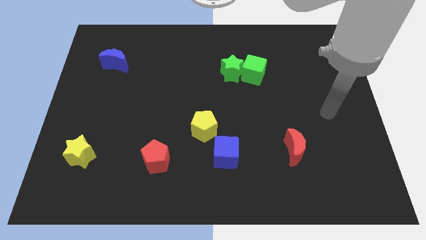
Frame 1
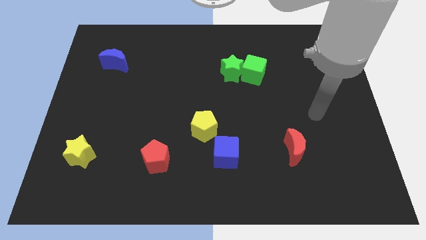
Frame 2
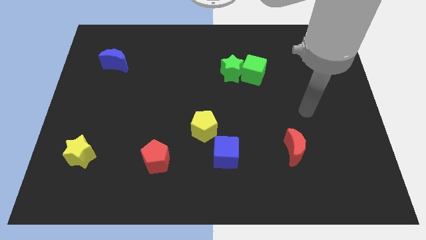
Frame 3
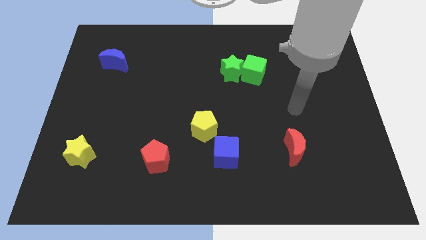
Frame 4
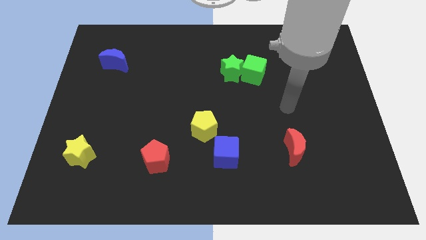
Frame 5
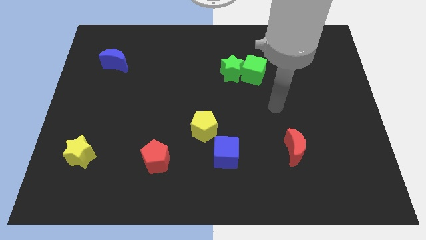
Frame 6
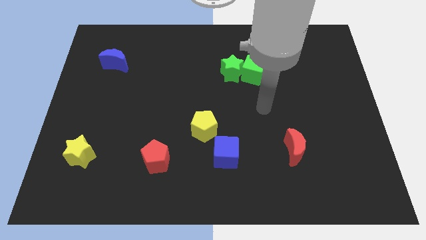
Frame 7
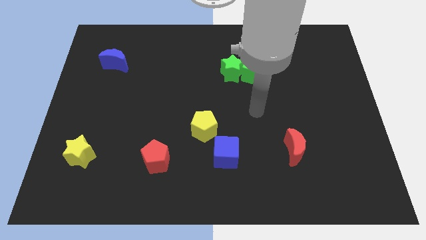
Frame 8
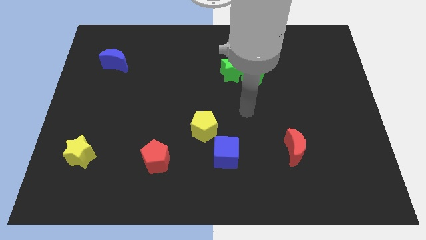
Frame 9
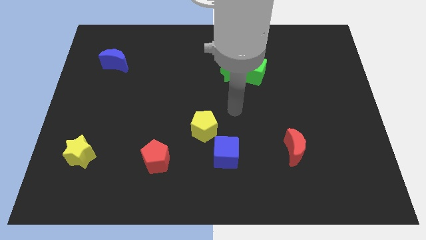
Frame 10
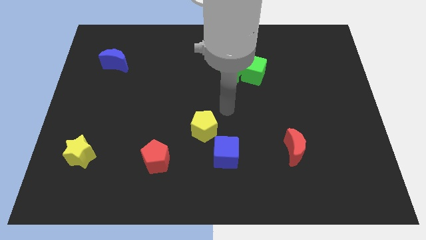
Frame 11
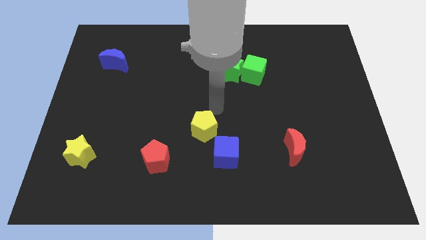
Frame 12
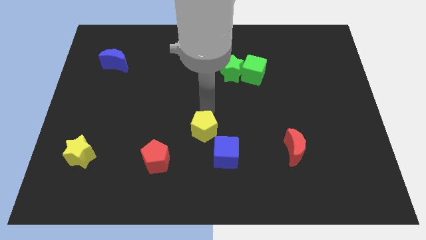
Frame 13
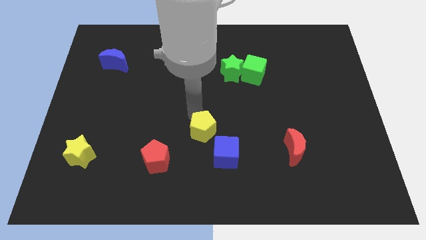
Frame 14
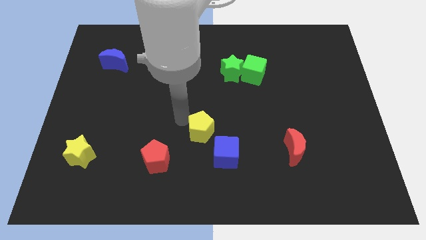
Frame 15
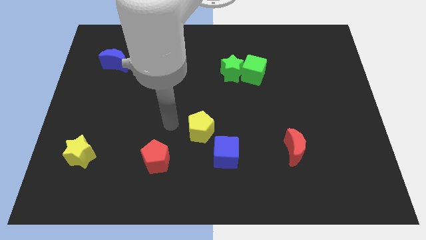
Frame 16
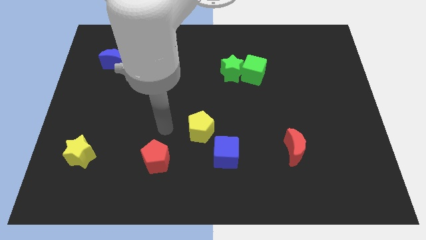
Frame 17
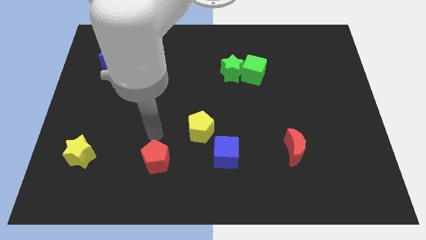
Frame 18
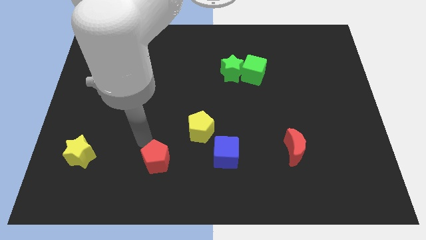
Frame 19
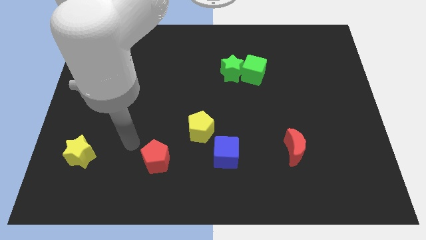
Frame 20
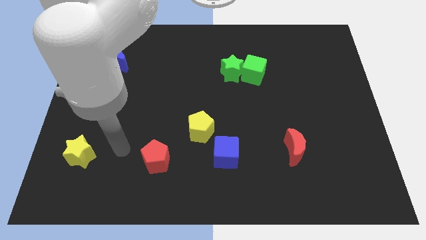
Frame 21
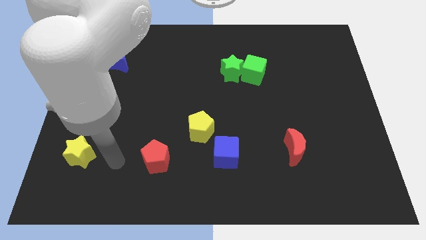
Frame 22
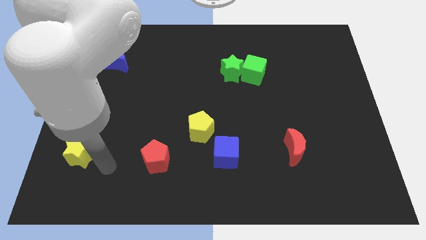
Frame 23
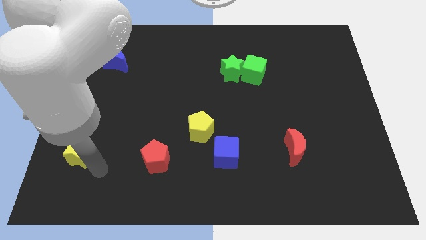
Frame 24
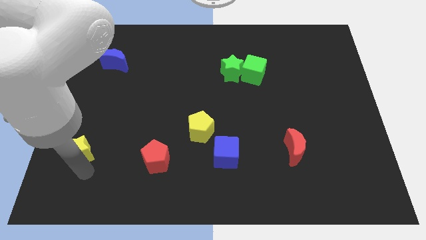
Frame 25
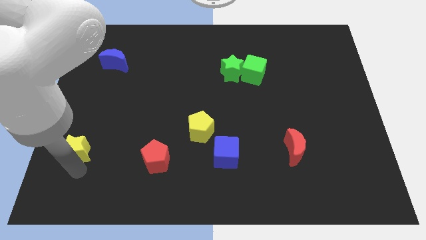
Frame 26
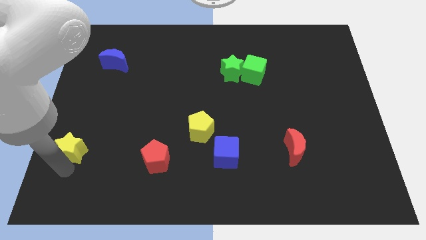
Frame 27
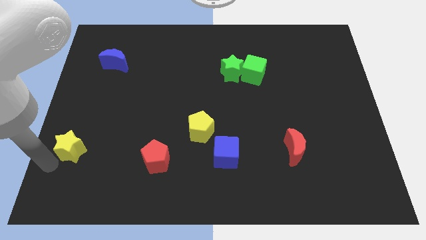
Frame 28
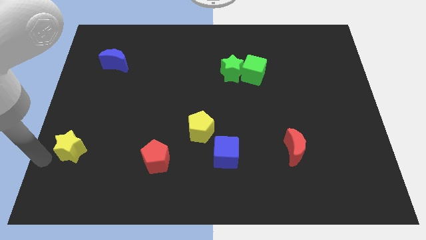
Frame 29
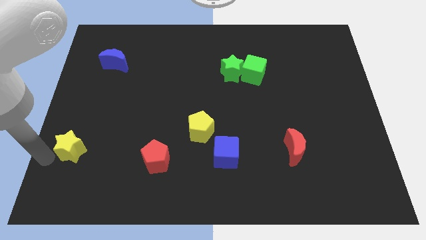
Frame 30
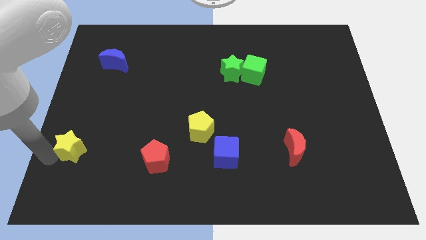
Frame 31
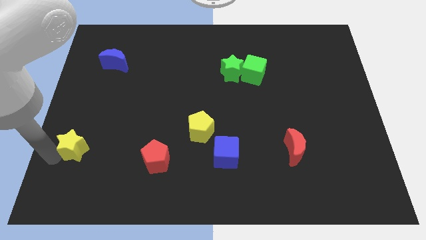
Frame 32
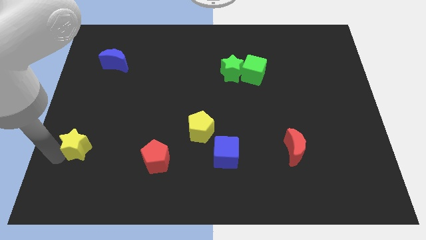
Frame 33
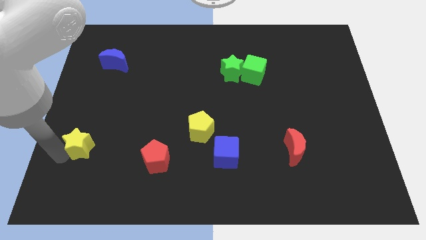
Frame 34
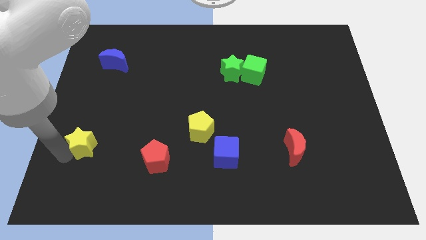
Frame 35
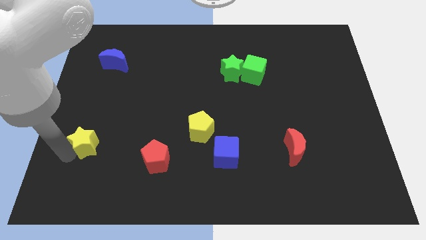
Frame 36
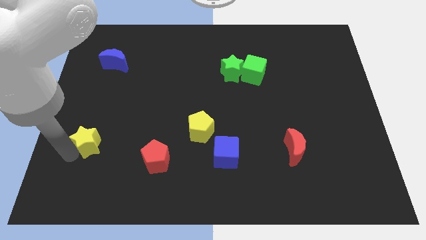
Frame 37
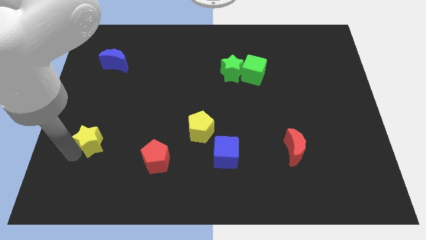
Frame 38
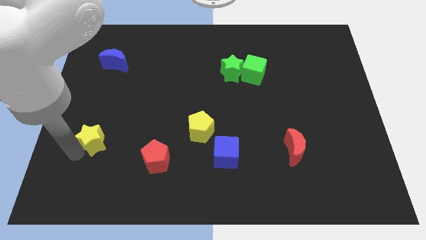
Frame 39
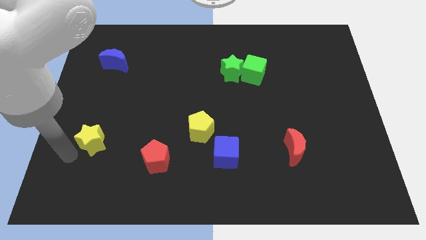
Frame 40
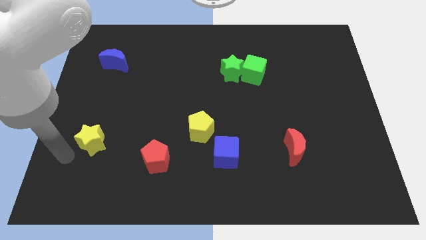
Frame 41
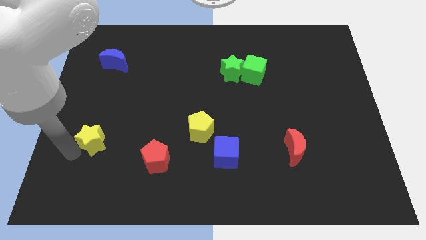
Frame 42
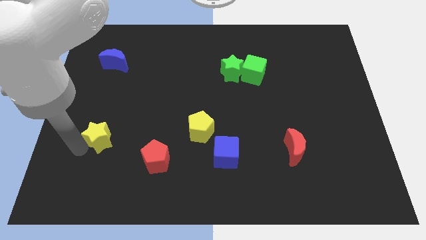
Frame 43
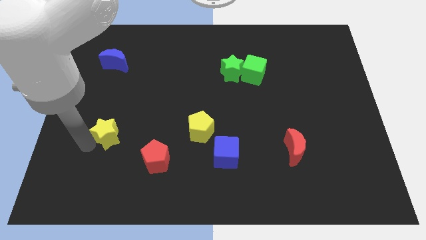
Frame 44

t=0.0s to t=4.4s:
move the yellow star slightly upwards and right

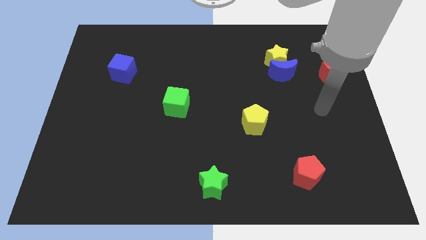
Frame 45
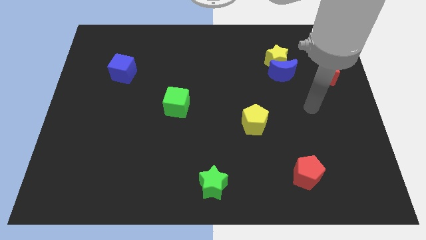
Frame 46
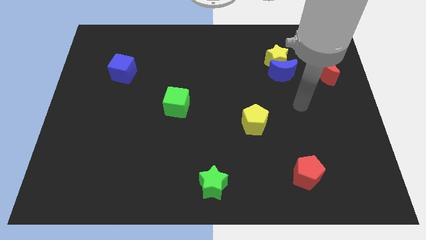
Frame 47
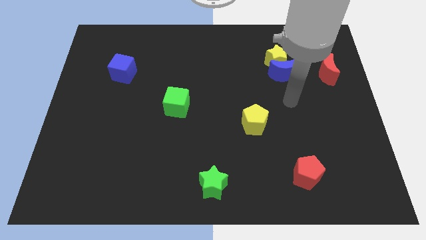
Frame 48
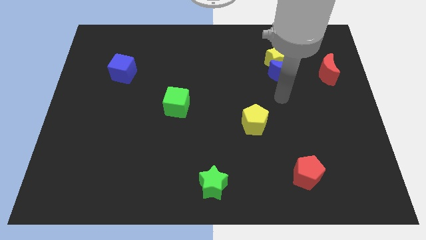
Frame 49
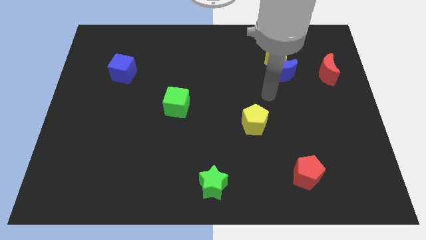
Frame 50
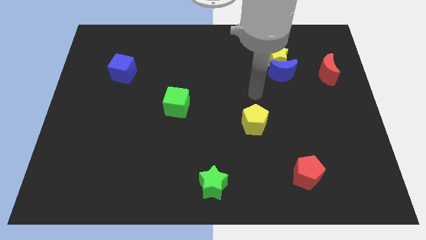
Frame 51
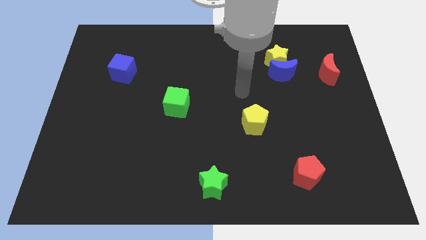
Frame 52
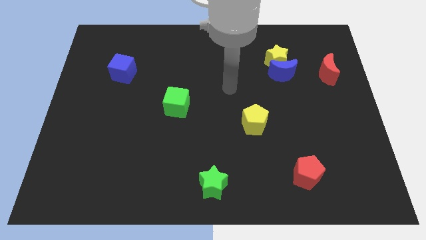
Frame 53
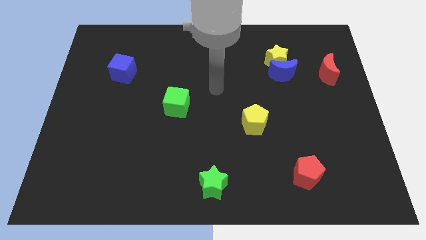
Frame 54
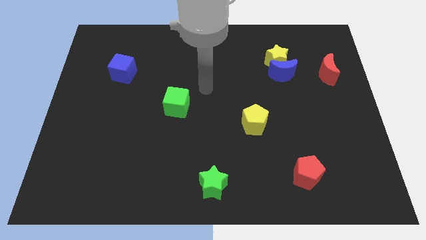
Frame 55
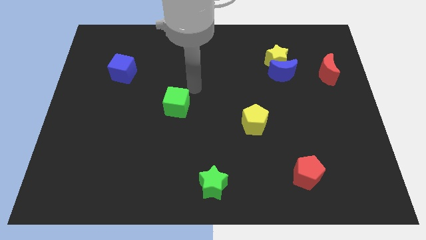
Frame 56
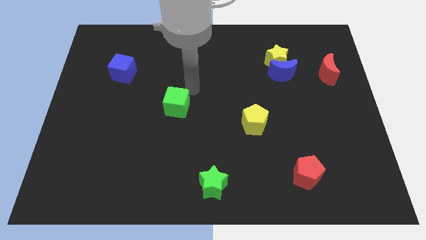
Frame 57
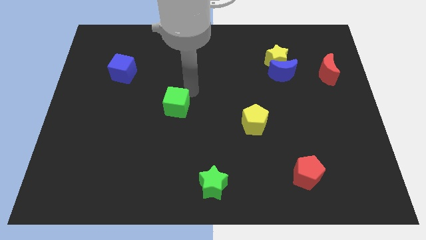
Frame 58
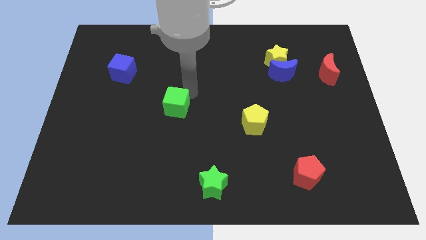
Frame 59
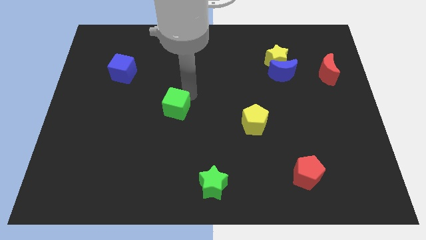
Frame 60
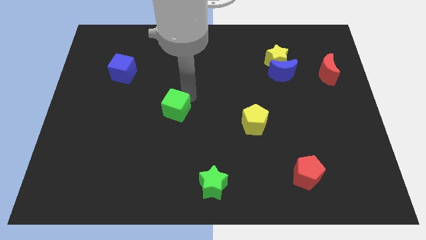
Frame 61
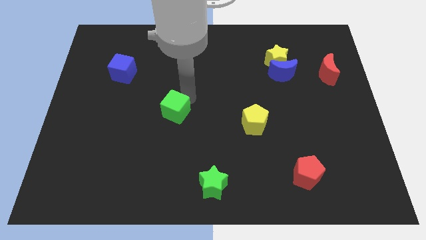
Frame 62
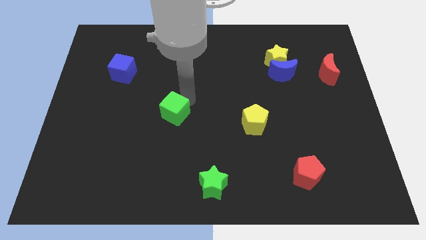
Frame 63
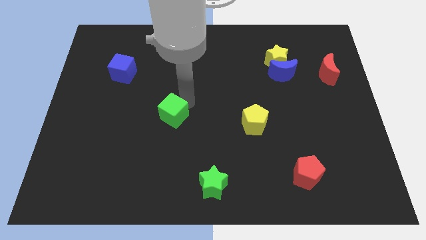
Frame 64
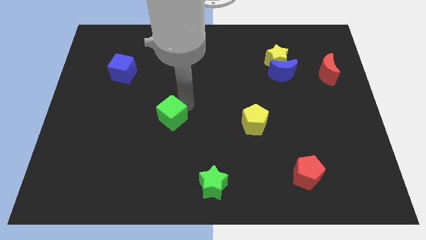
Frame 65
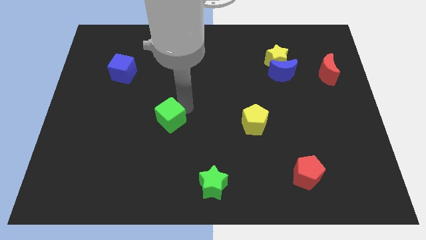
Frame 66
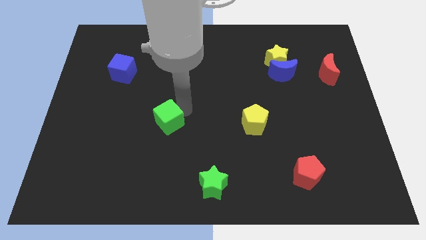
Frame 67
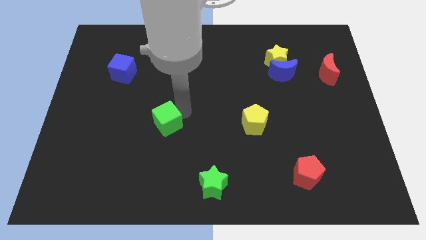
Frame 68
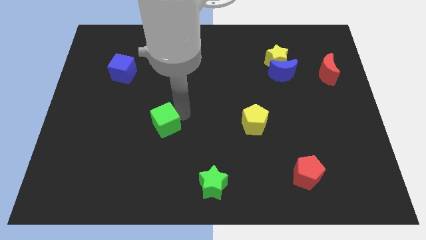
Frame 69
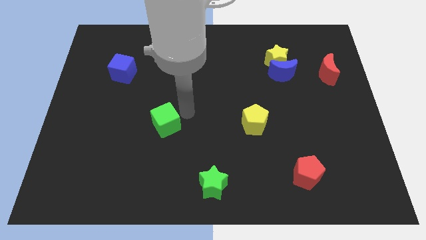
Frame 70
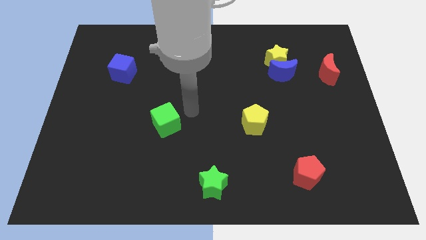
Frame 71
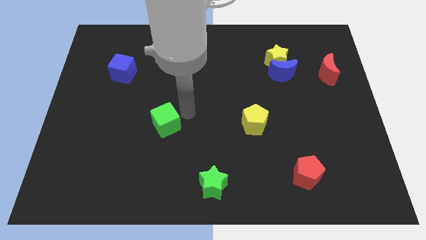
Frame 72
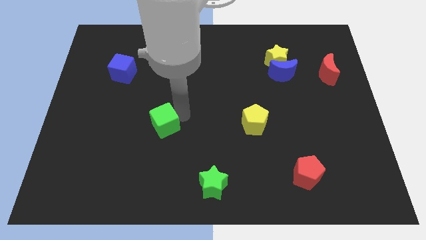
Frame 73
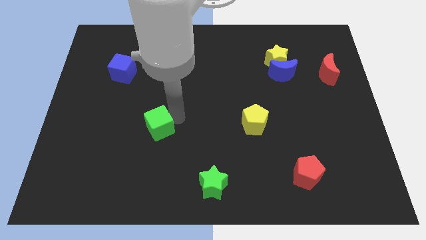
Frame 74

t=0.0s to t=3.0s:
push the green cube slightly downwards and left

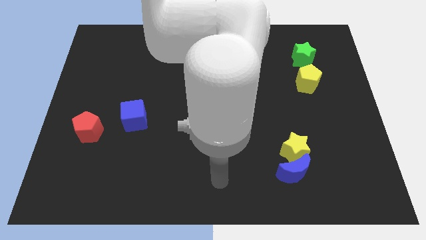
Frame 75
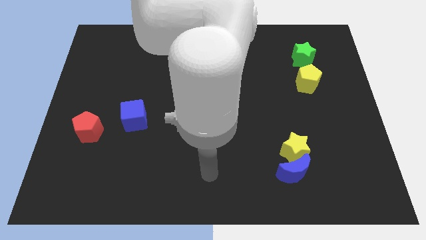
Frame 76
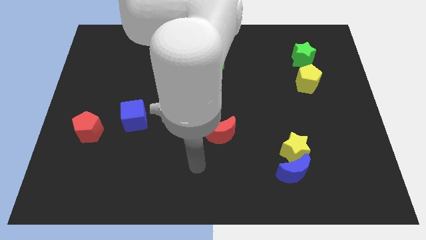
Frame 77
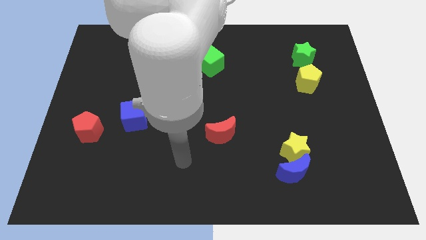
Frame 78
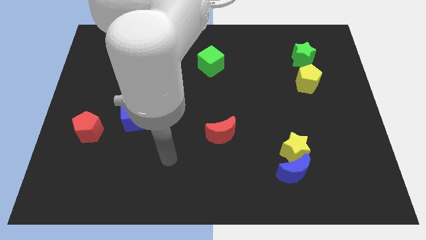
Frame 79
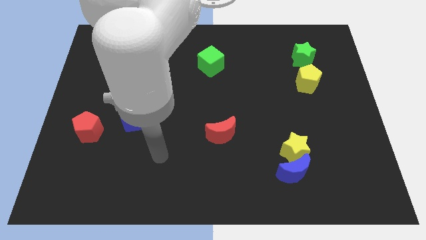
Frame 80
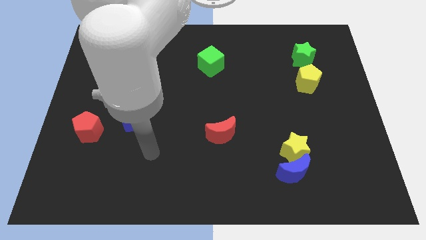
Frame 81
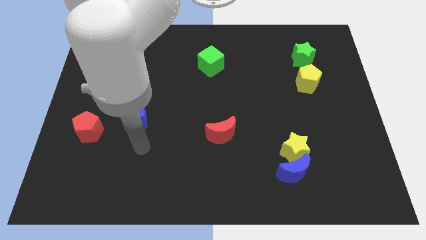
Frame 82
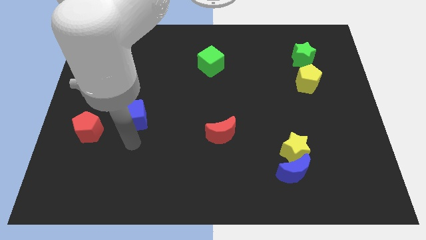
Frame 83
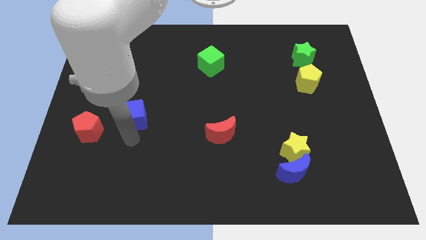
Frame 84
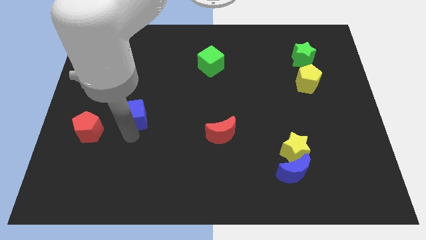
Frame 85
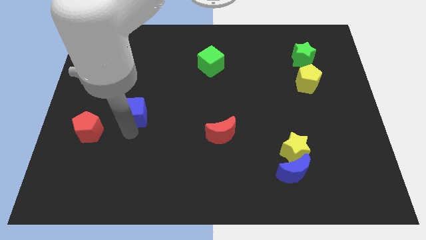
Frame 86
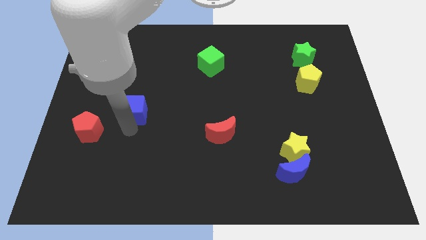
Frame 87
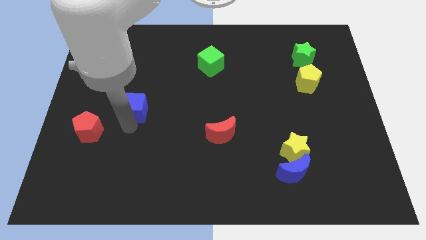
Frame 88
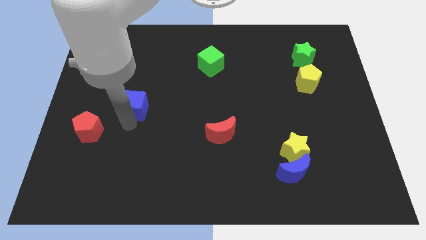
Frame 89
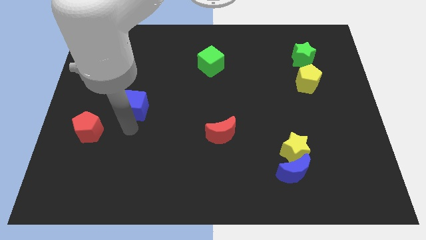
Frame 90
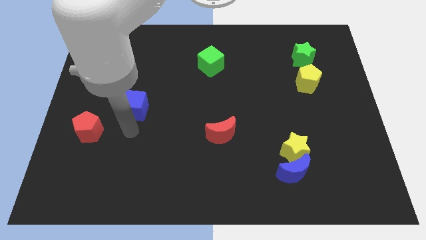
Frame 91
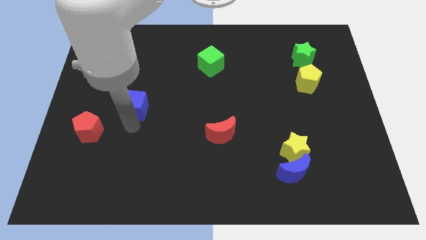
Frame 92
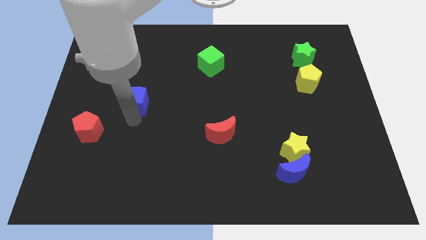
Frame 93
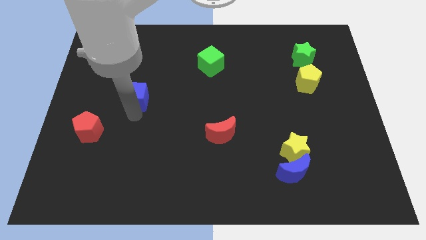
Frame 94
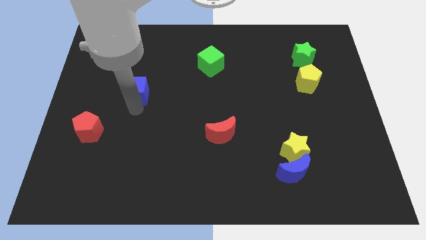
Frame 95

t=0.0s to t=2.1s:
slide the blue cube slightly up
